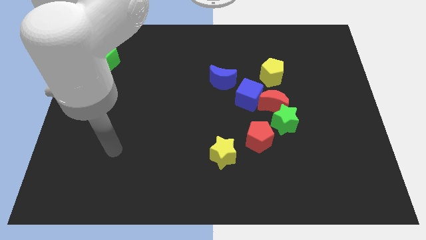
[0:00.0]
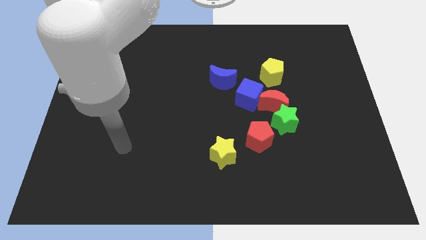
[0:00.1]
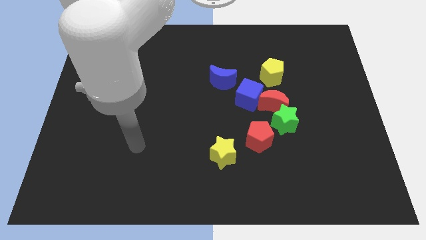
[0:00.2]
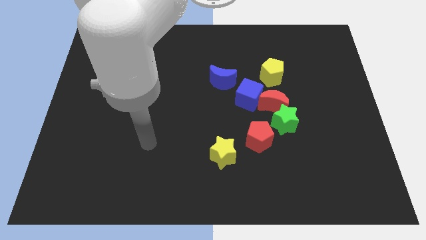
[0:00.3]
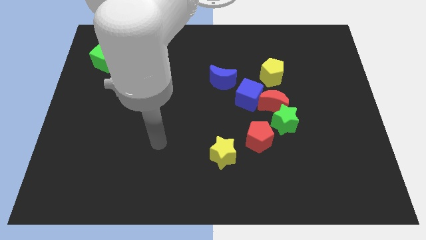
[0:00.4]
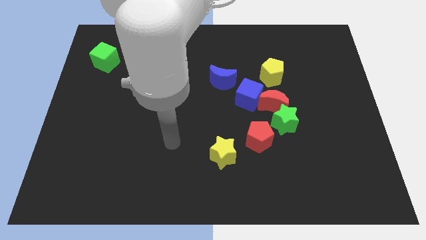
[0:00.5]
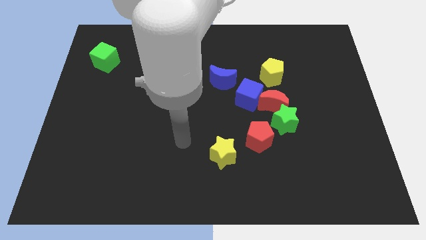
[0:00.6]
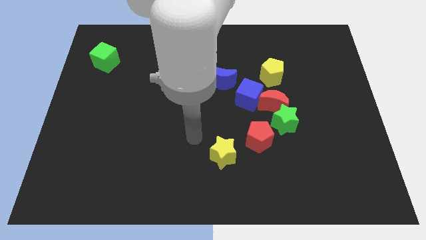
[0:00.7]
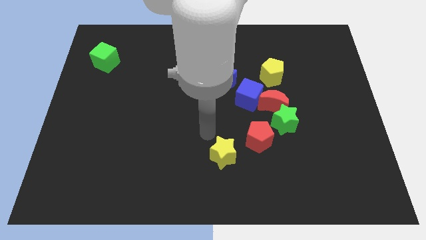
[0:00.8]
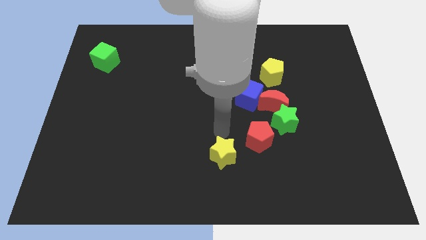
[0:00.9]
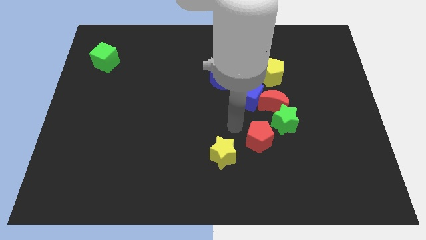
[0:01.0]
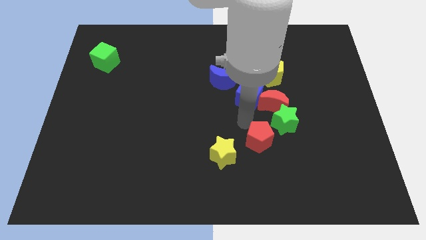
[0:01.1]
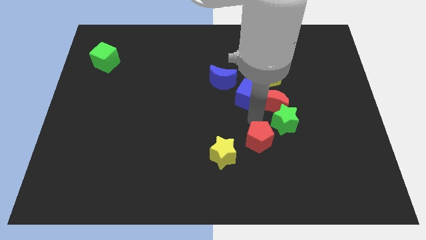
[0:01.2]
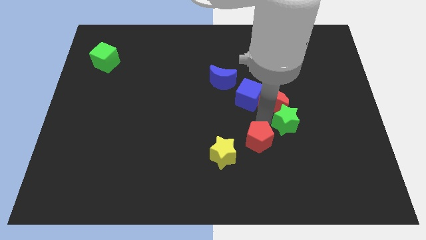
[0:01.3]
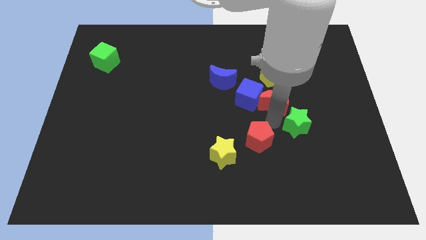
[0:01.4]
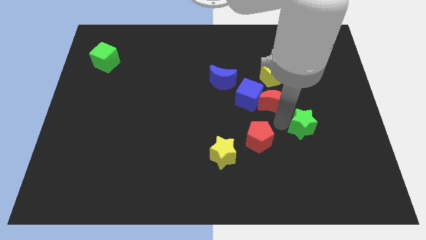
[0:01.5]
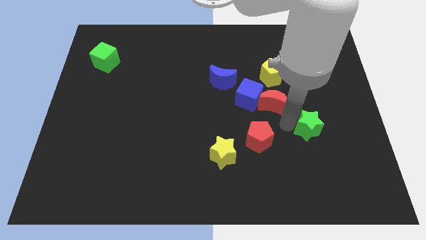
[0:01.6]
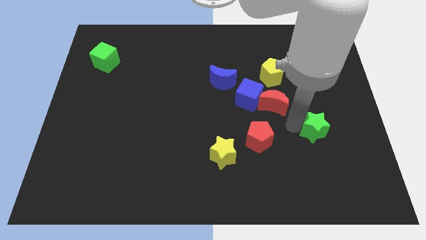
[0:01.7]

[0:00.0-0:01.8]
move the green star away from the red moon and red pentagon

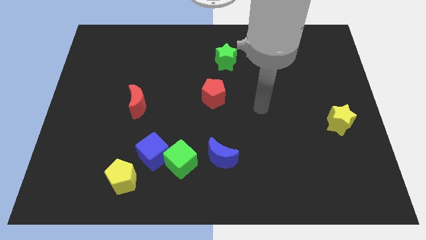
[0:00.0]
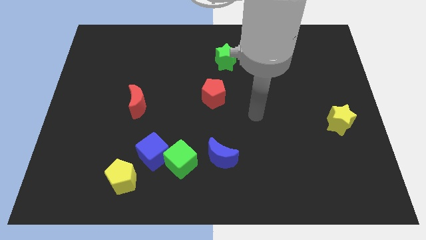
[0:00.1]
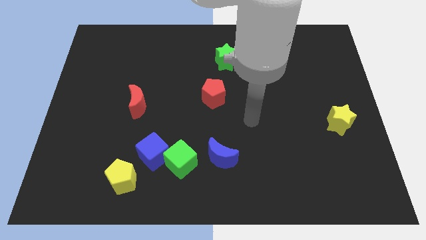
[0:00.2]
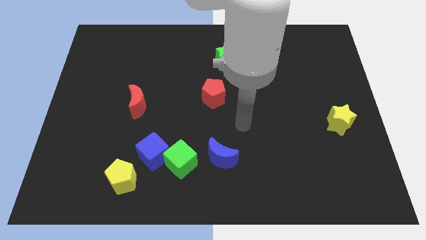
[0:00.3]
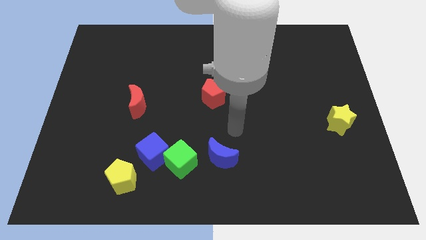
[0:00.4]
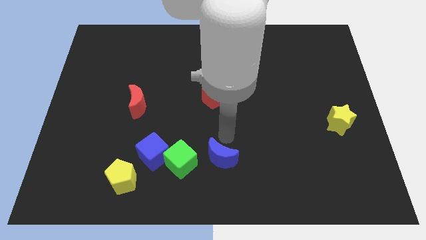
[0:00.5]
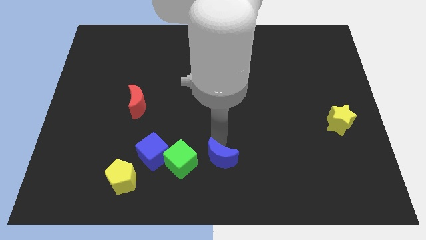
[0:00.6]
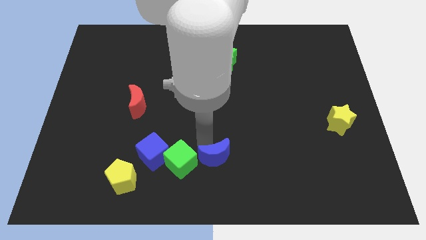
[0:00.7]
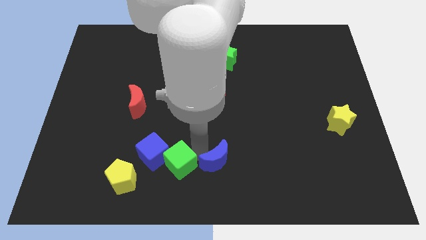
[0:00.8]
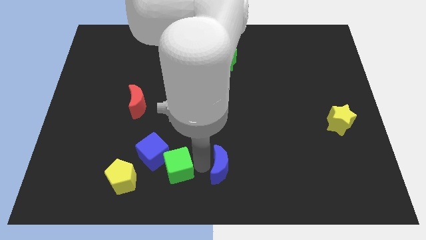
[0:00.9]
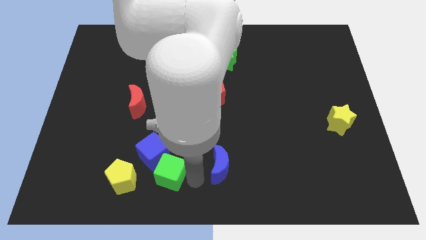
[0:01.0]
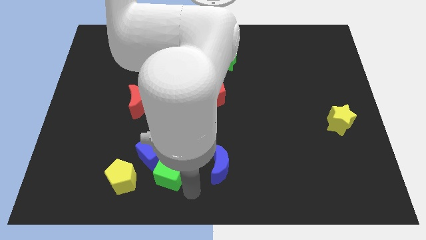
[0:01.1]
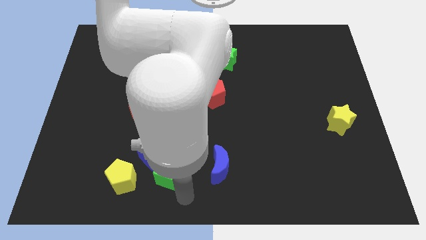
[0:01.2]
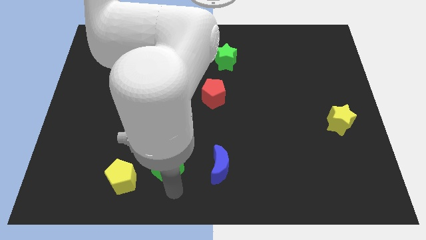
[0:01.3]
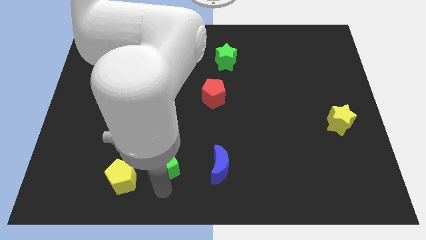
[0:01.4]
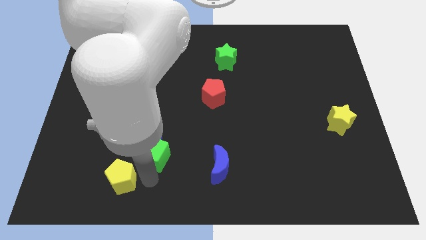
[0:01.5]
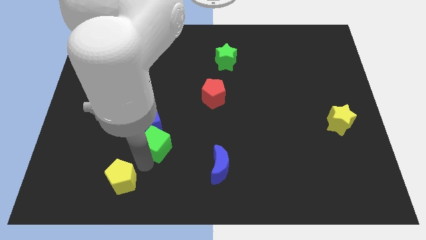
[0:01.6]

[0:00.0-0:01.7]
pull the blue cube apart from the green cube and yellow pentagon

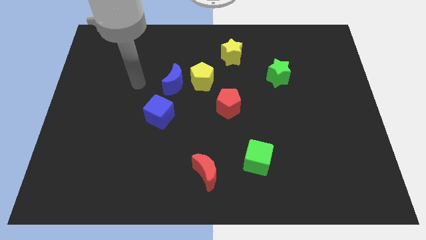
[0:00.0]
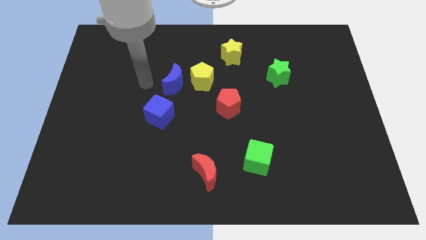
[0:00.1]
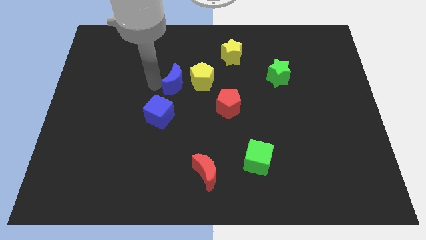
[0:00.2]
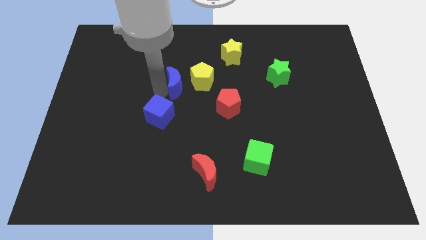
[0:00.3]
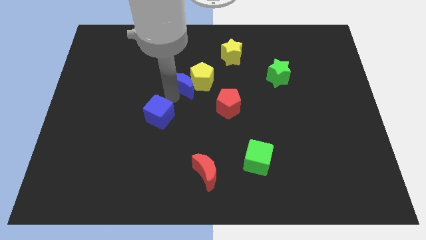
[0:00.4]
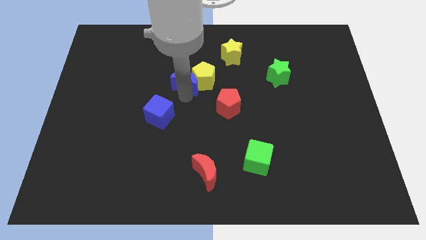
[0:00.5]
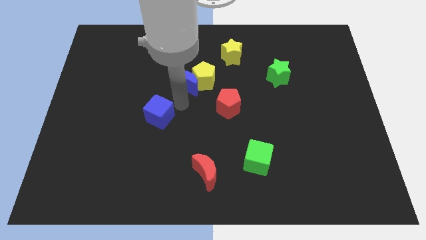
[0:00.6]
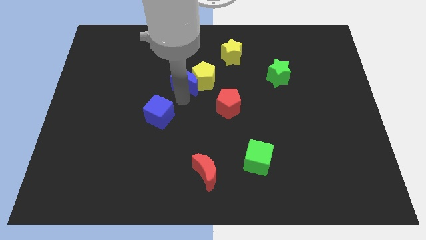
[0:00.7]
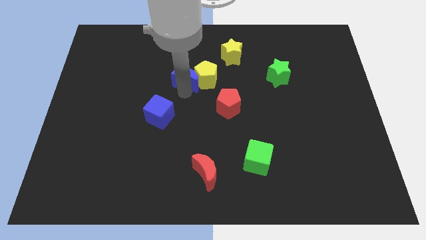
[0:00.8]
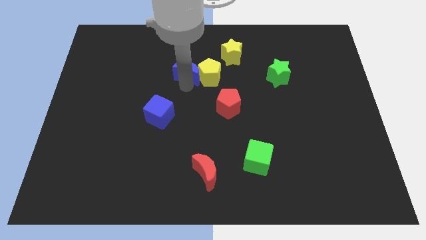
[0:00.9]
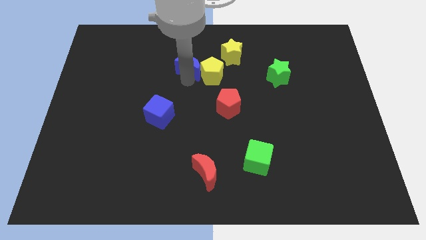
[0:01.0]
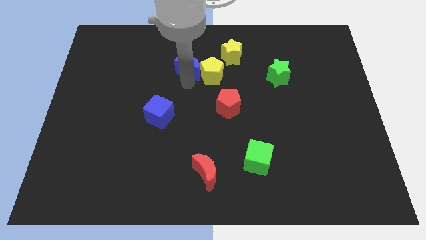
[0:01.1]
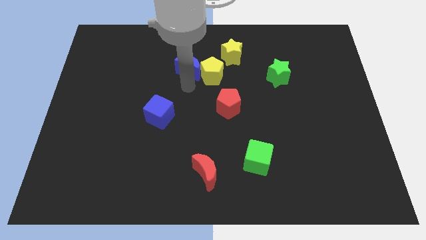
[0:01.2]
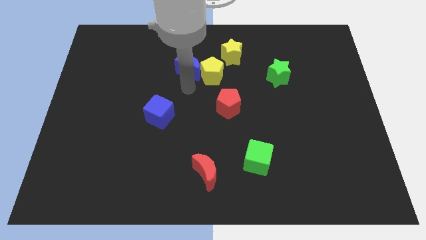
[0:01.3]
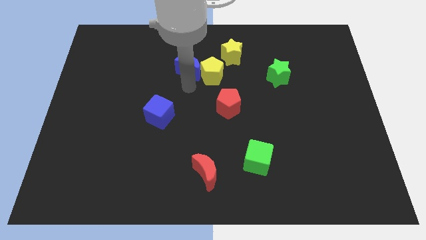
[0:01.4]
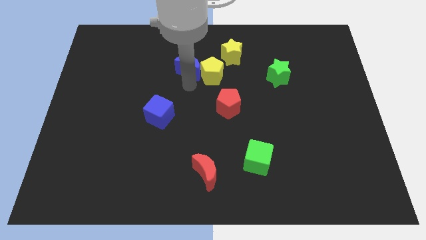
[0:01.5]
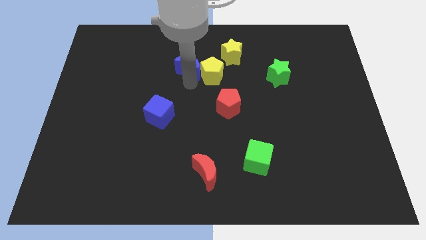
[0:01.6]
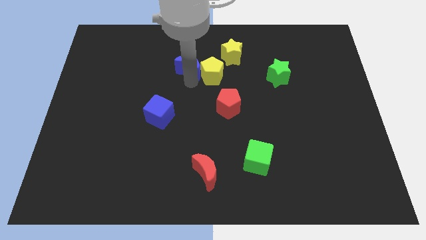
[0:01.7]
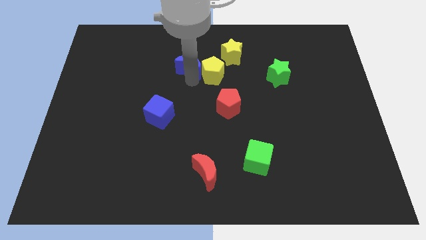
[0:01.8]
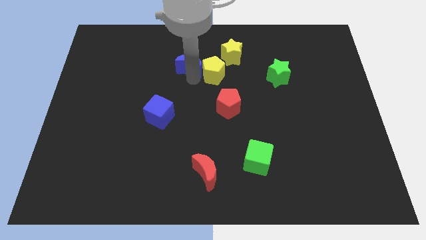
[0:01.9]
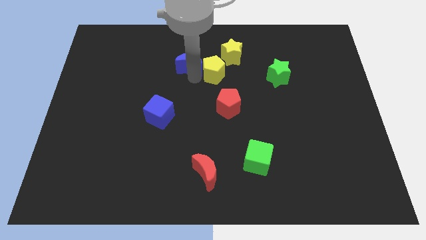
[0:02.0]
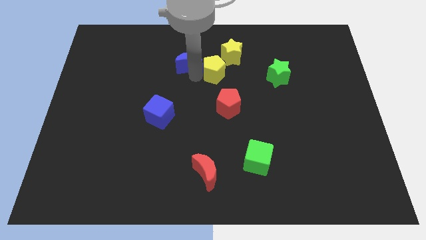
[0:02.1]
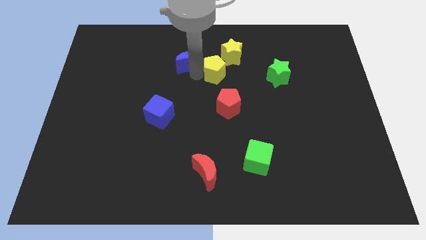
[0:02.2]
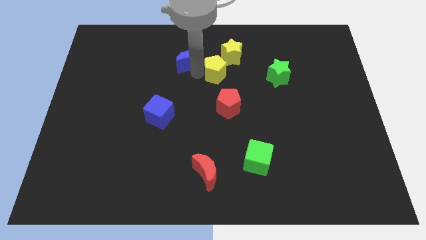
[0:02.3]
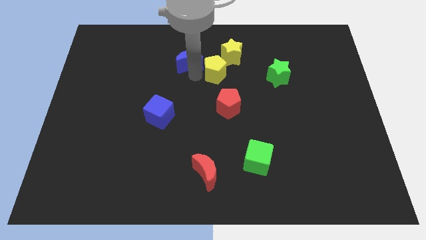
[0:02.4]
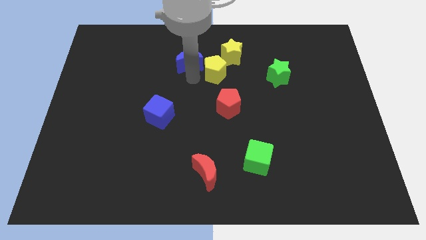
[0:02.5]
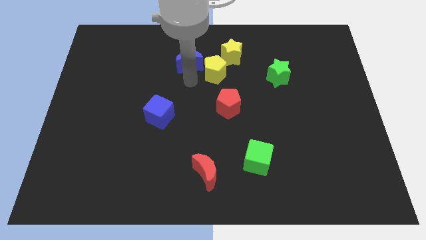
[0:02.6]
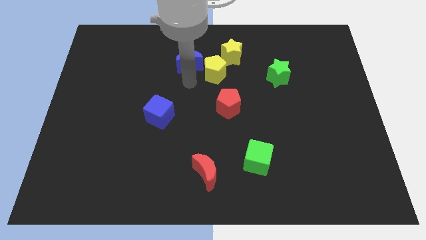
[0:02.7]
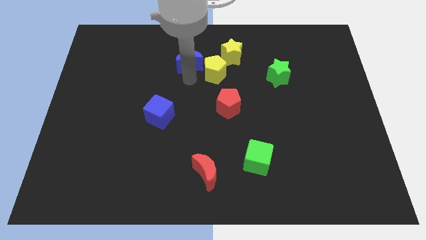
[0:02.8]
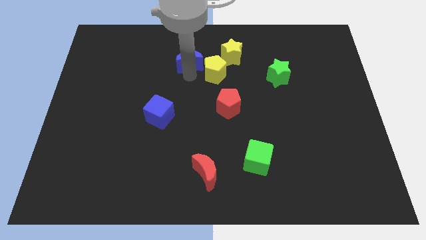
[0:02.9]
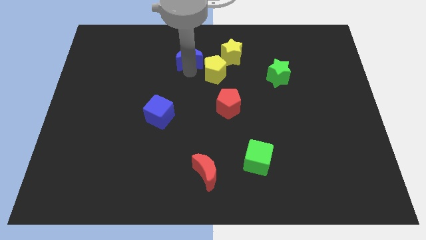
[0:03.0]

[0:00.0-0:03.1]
pull the blue moon apart from the yellow pentagon and blue cube

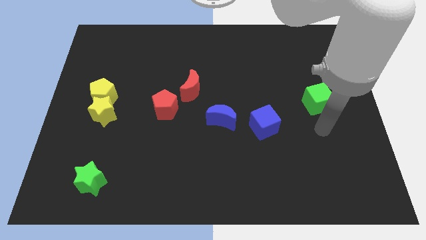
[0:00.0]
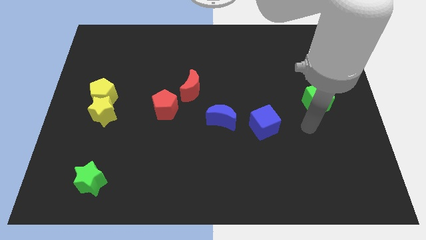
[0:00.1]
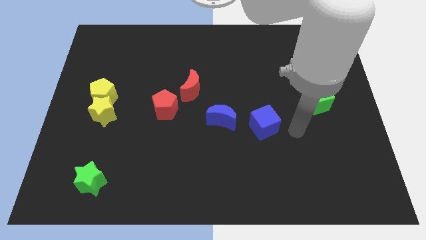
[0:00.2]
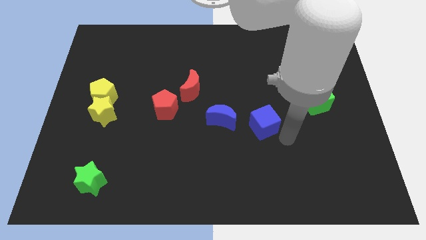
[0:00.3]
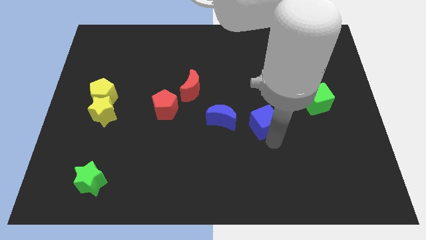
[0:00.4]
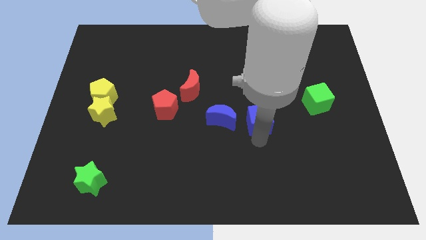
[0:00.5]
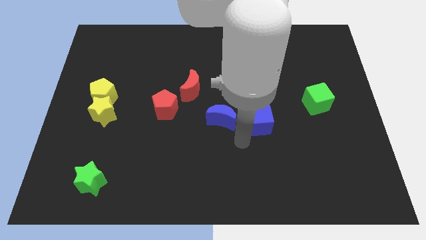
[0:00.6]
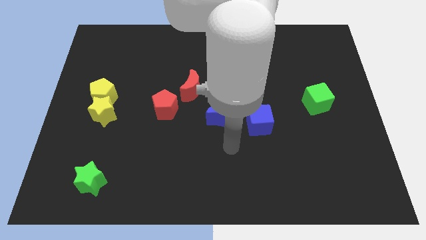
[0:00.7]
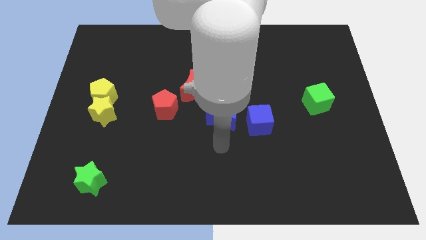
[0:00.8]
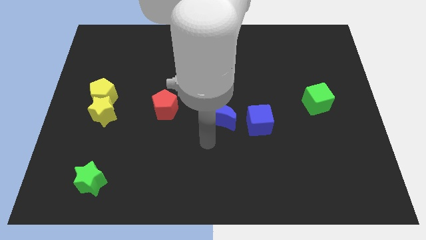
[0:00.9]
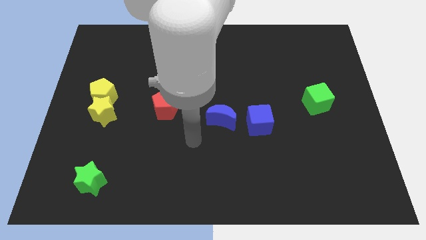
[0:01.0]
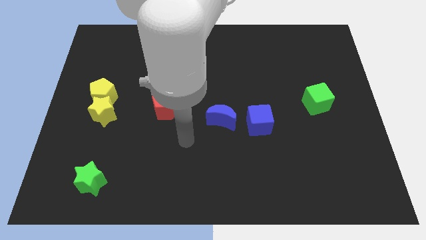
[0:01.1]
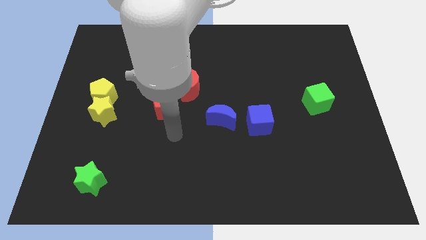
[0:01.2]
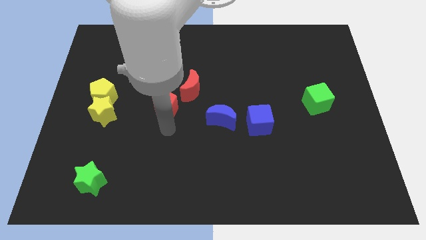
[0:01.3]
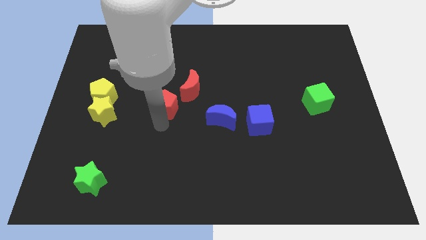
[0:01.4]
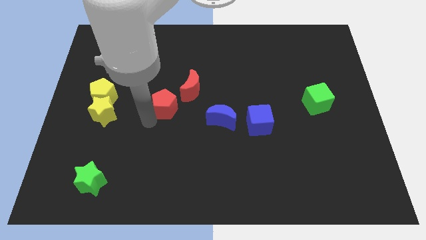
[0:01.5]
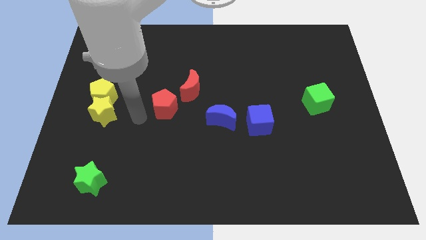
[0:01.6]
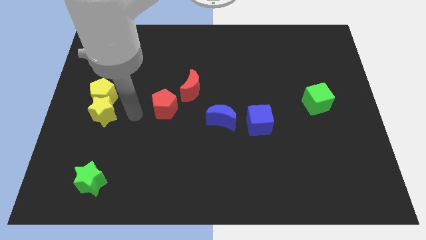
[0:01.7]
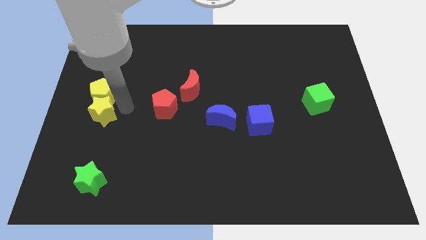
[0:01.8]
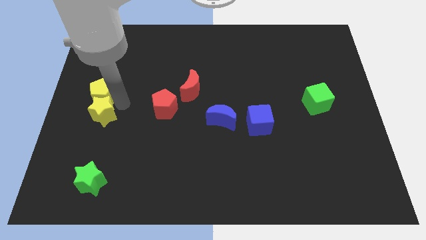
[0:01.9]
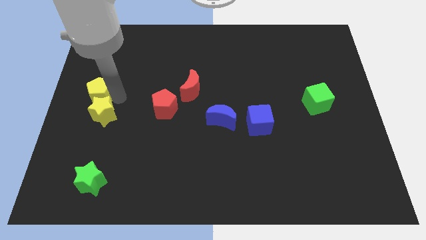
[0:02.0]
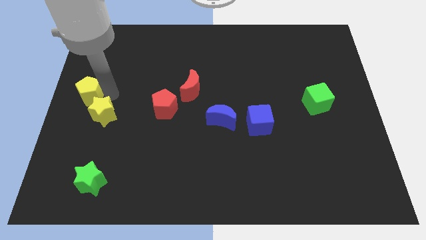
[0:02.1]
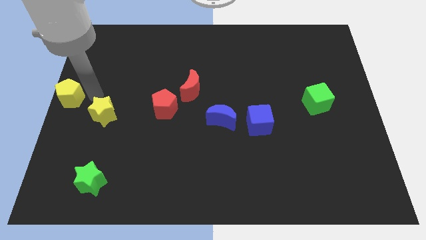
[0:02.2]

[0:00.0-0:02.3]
pull the yellow star apart from the yellow pentagon

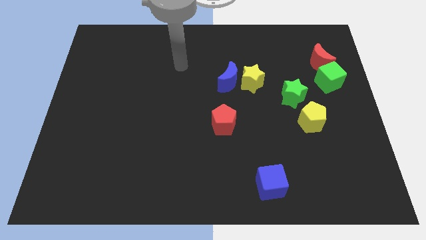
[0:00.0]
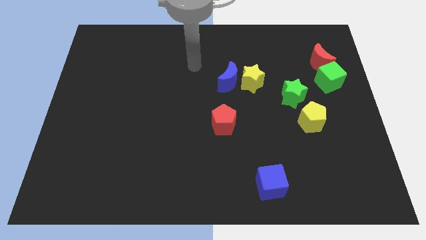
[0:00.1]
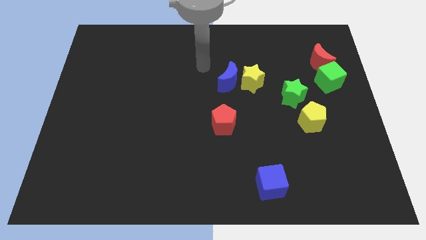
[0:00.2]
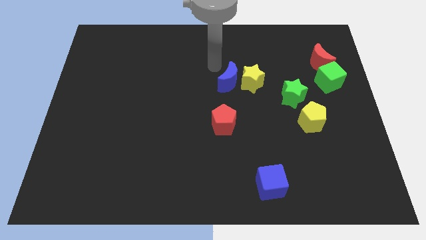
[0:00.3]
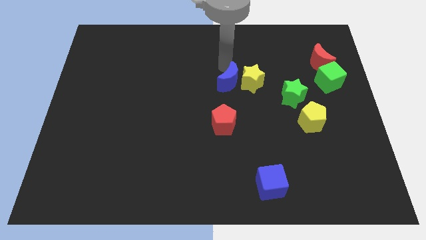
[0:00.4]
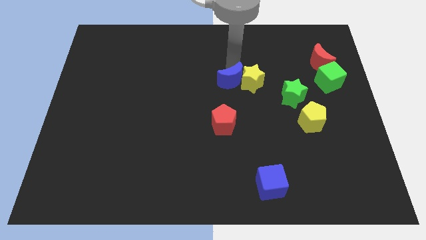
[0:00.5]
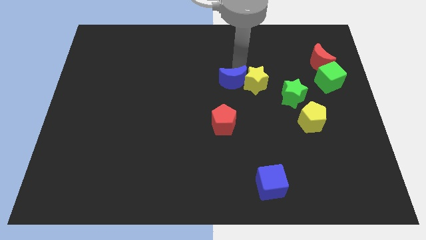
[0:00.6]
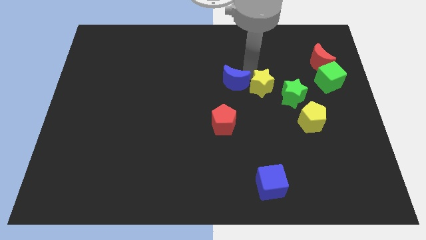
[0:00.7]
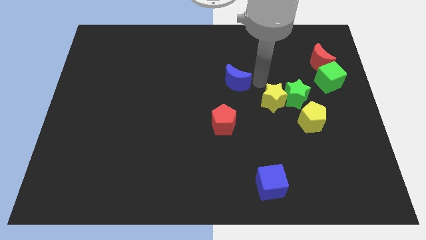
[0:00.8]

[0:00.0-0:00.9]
move the blue moon away from the yellow star
